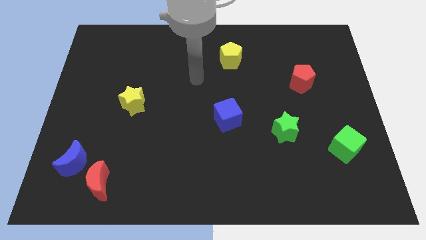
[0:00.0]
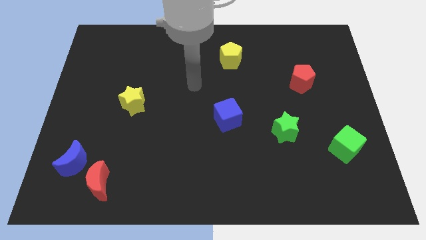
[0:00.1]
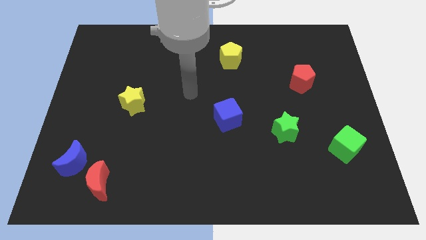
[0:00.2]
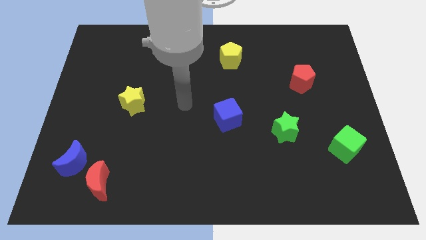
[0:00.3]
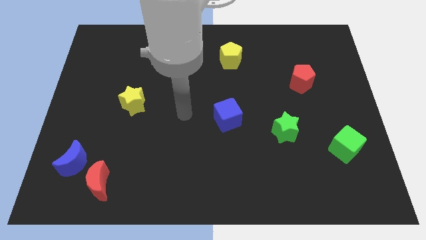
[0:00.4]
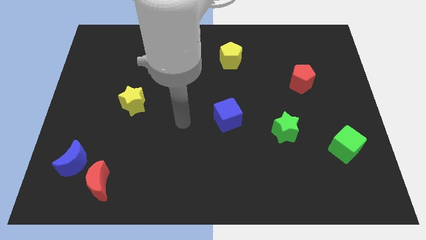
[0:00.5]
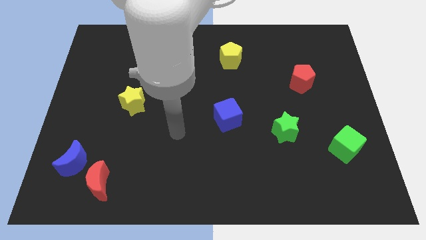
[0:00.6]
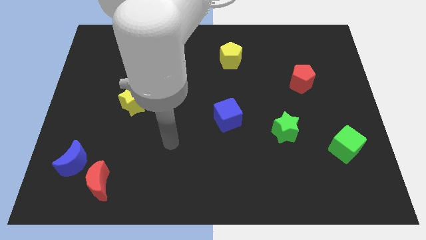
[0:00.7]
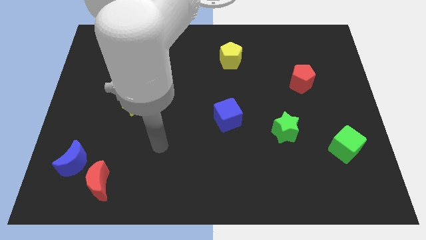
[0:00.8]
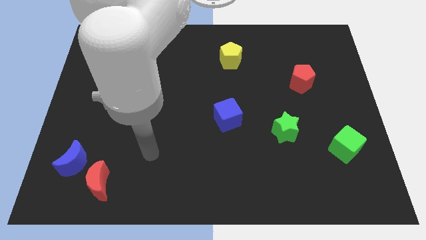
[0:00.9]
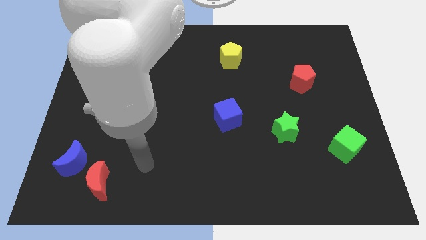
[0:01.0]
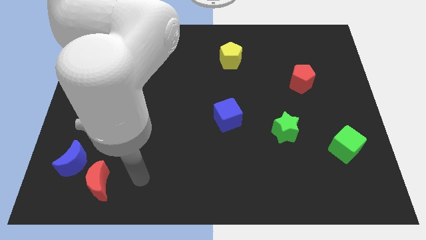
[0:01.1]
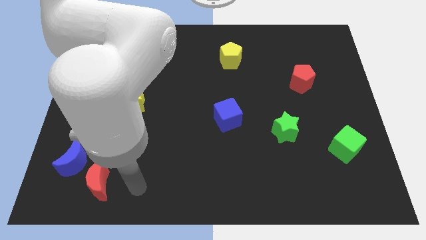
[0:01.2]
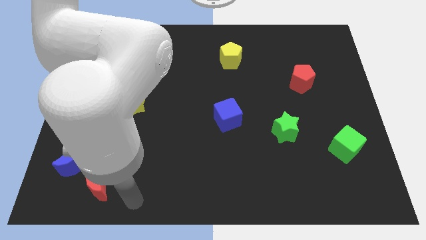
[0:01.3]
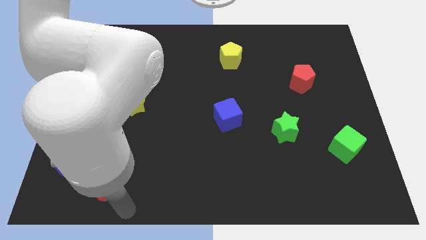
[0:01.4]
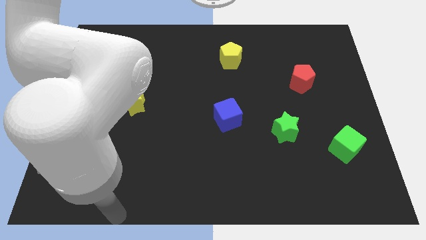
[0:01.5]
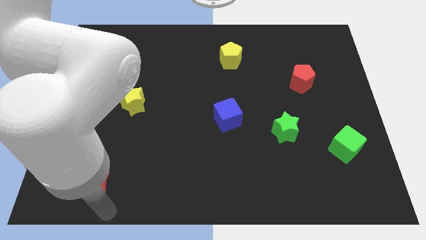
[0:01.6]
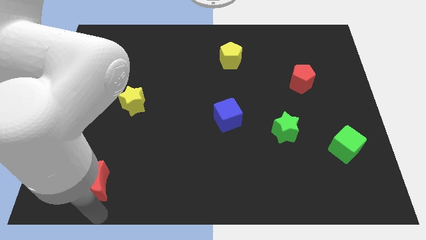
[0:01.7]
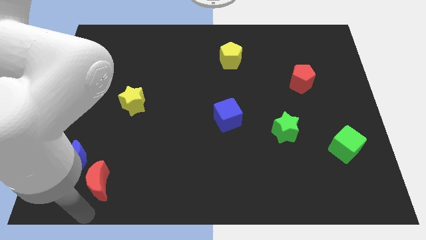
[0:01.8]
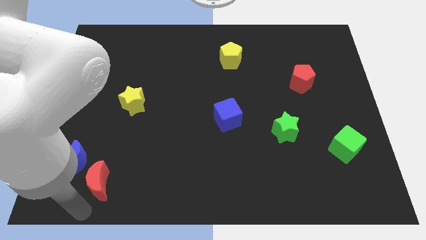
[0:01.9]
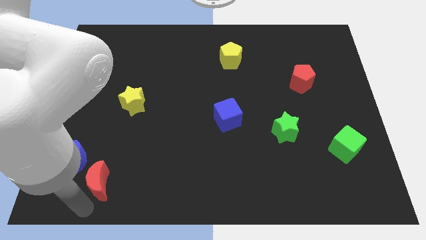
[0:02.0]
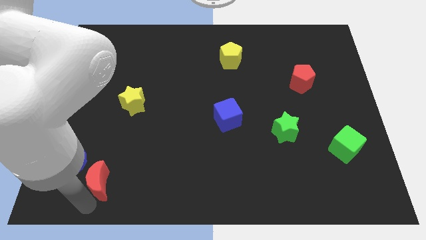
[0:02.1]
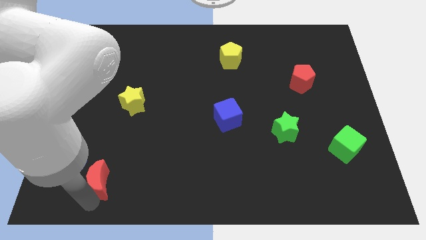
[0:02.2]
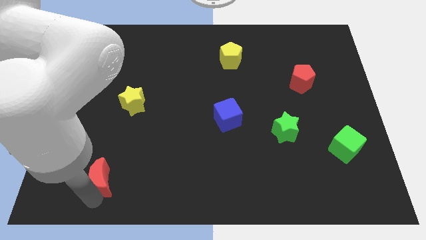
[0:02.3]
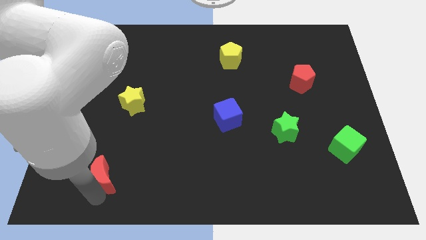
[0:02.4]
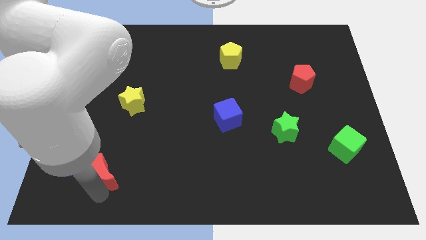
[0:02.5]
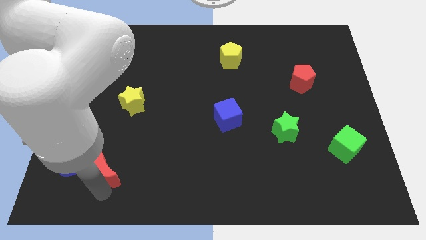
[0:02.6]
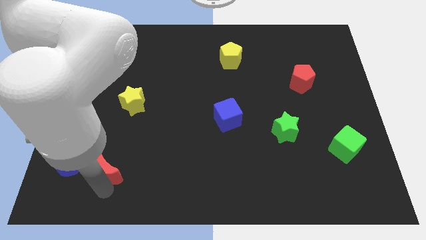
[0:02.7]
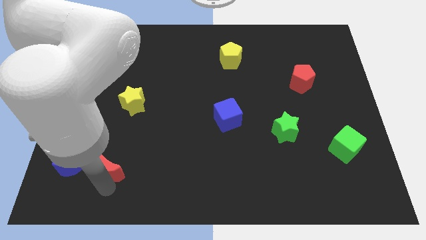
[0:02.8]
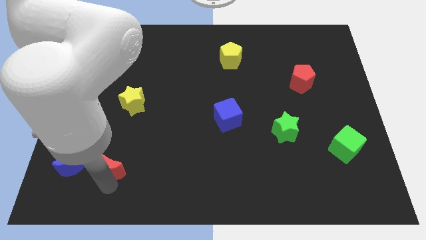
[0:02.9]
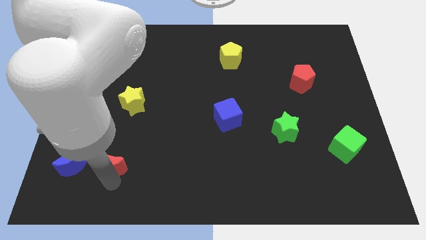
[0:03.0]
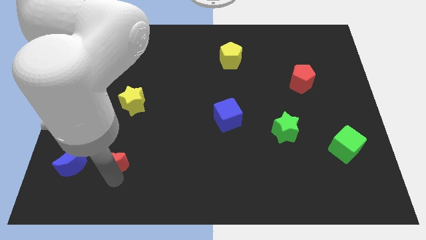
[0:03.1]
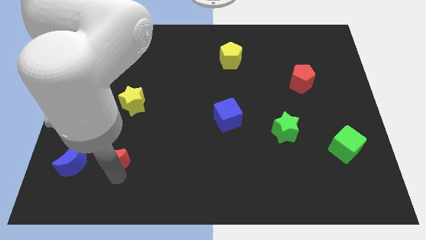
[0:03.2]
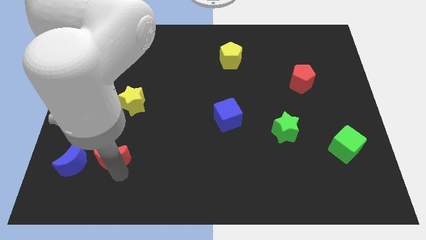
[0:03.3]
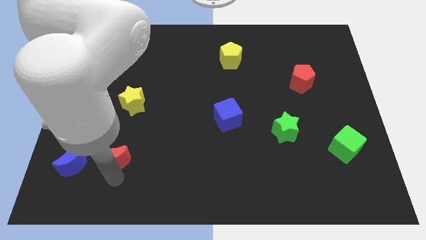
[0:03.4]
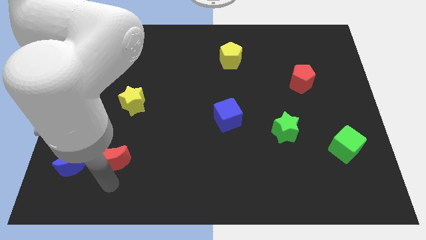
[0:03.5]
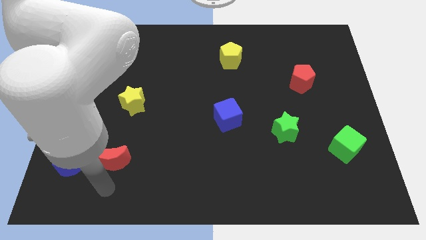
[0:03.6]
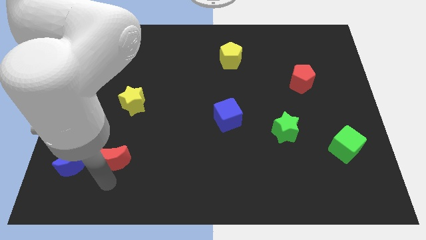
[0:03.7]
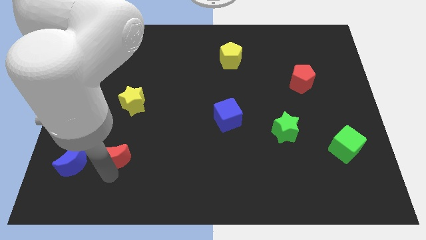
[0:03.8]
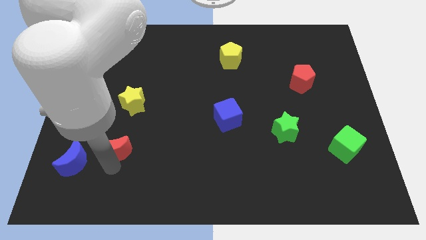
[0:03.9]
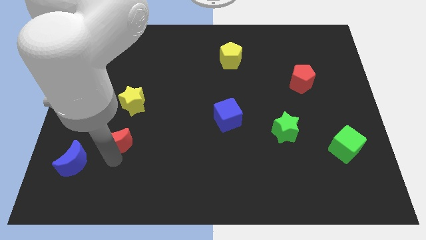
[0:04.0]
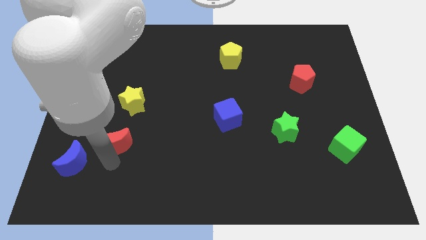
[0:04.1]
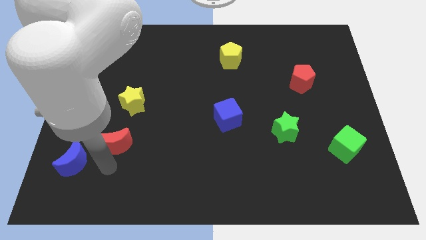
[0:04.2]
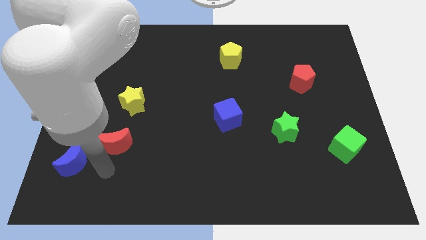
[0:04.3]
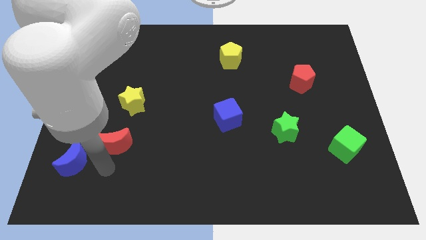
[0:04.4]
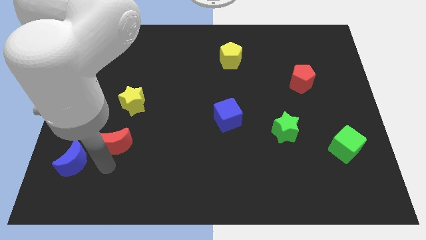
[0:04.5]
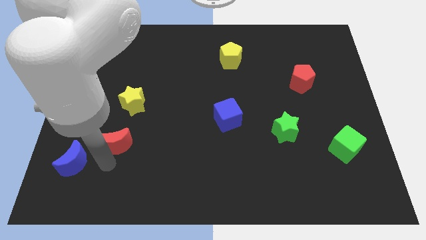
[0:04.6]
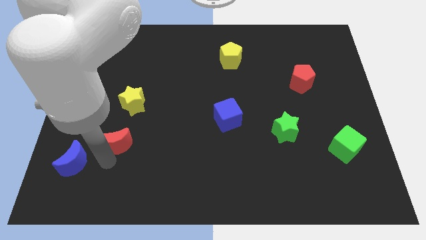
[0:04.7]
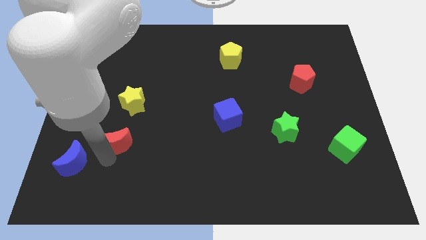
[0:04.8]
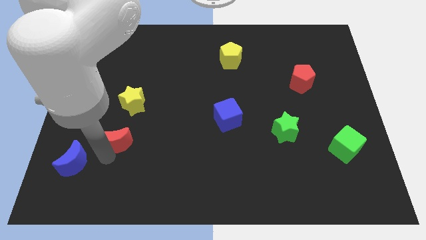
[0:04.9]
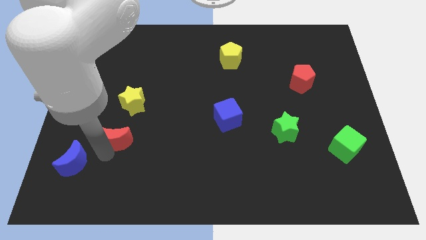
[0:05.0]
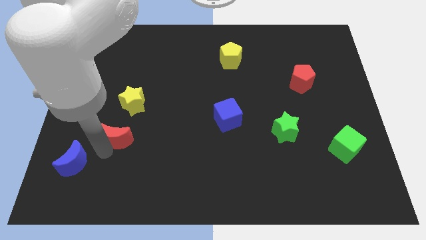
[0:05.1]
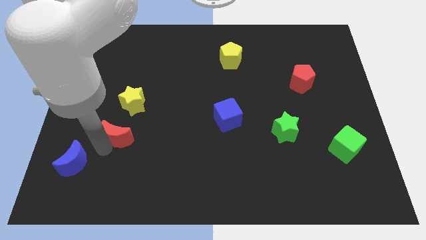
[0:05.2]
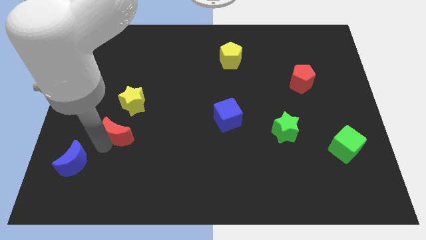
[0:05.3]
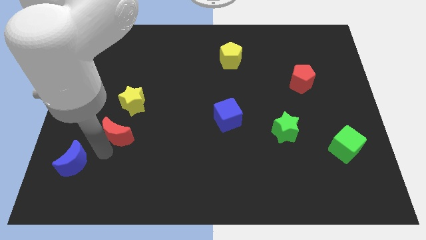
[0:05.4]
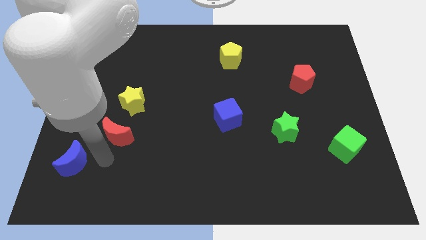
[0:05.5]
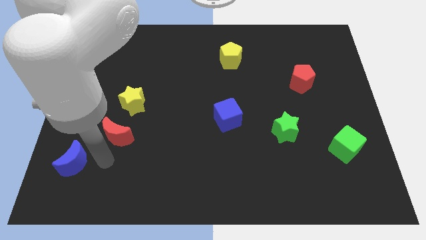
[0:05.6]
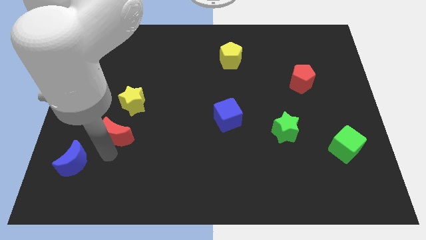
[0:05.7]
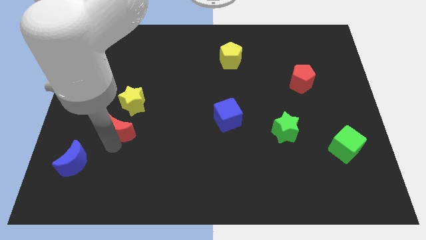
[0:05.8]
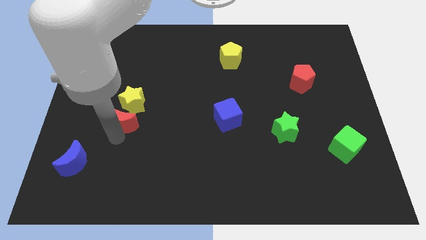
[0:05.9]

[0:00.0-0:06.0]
slide the red moon close to the yellow star

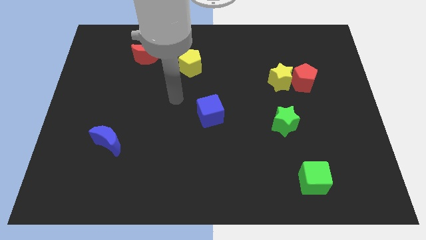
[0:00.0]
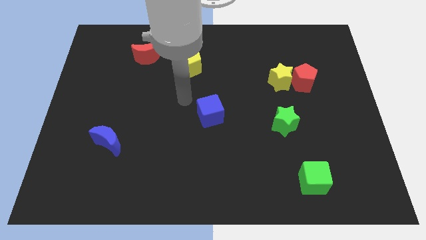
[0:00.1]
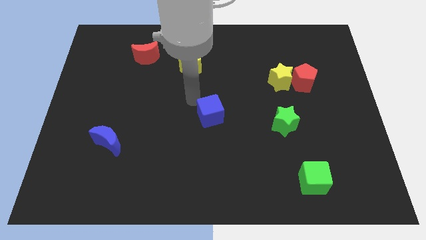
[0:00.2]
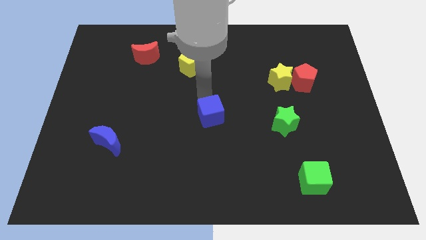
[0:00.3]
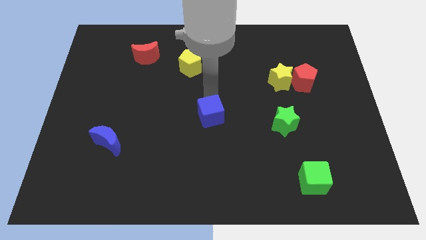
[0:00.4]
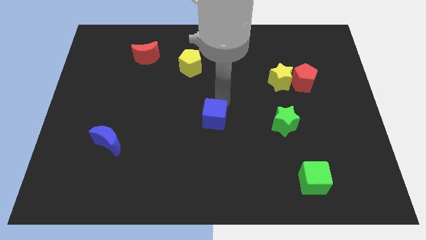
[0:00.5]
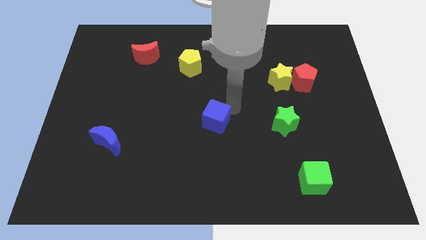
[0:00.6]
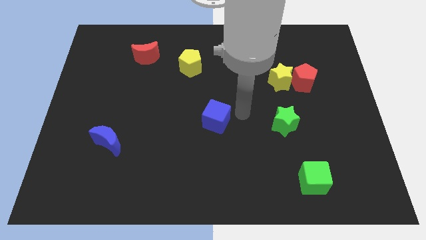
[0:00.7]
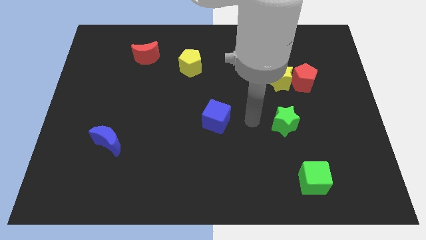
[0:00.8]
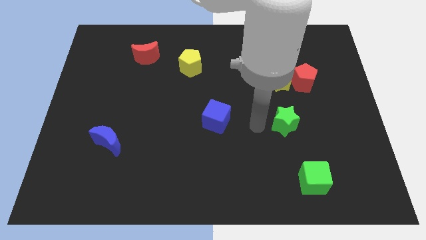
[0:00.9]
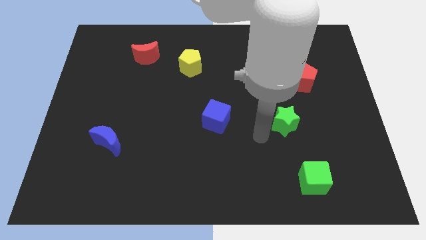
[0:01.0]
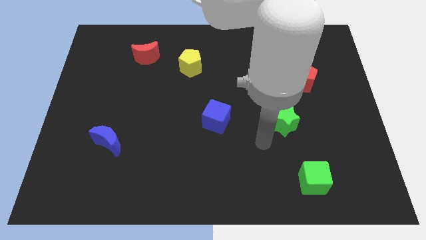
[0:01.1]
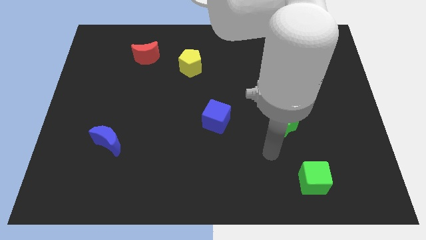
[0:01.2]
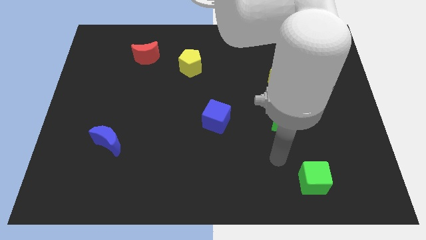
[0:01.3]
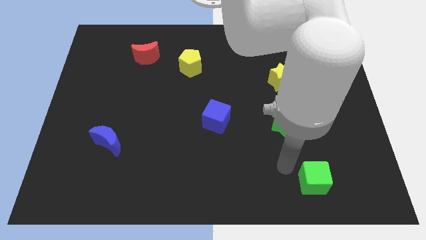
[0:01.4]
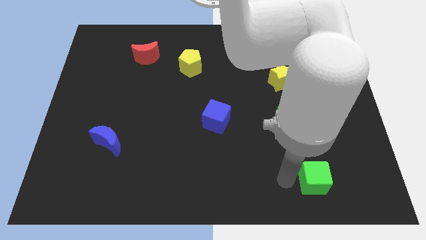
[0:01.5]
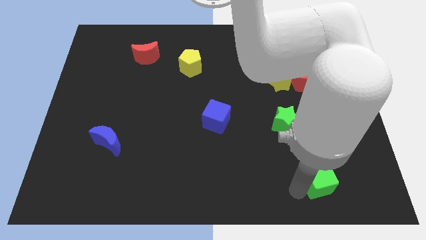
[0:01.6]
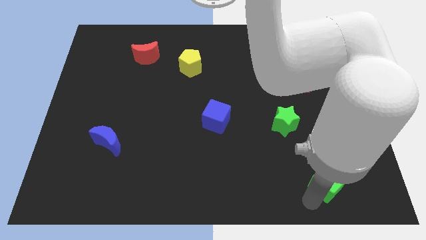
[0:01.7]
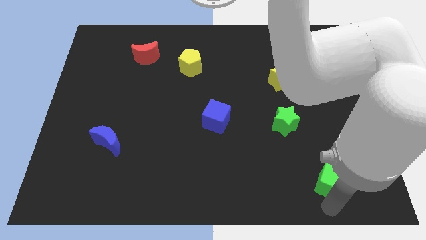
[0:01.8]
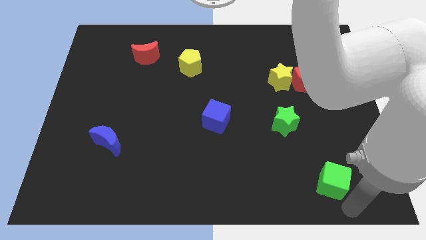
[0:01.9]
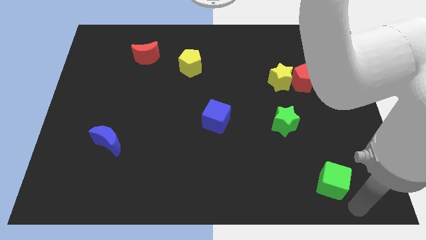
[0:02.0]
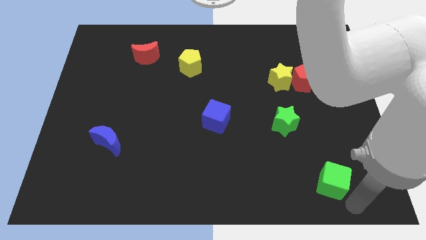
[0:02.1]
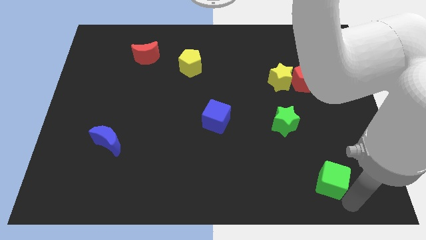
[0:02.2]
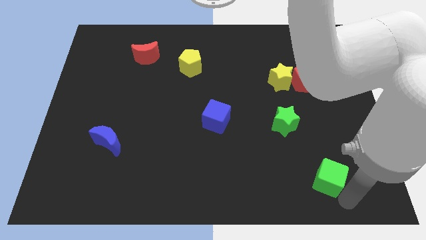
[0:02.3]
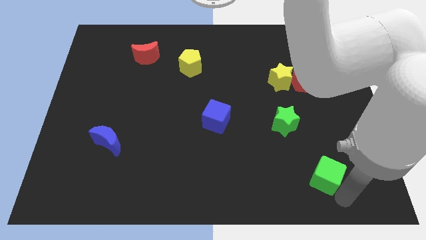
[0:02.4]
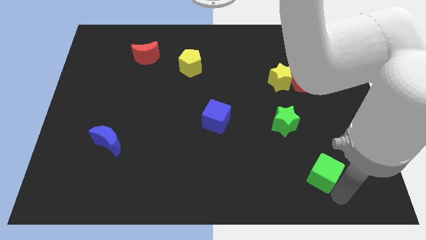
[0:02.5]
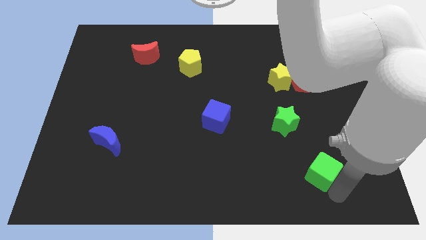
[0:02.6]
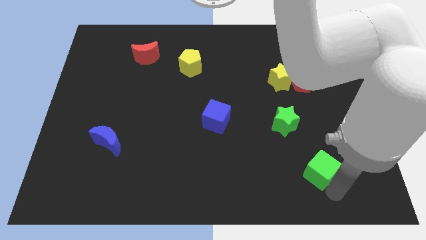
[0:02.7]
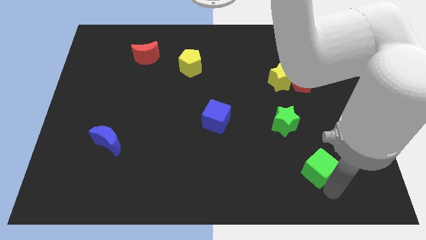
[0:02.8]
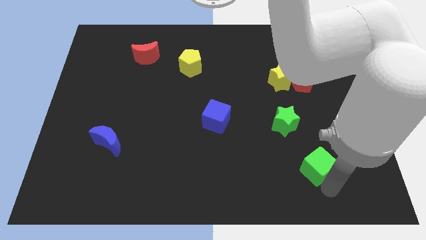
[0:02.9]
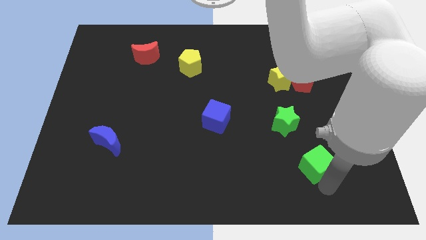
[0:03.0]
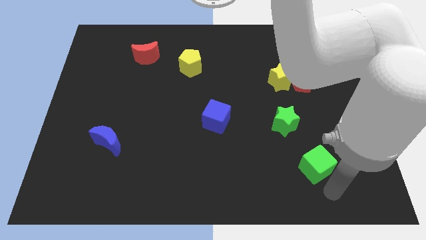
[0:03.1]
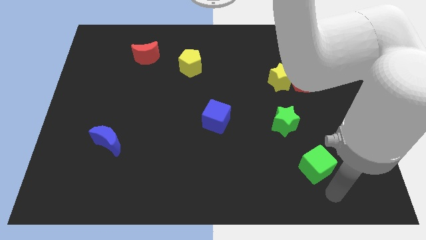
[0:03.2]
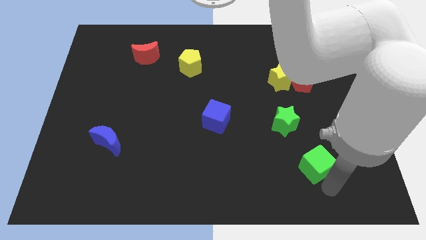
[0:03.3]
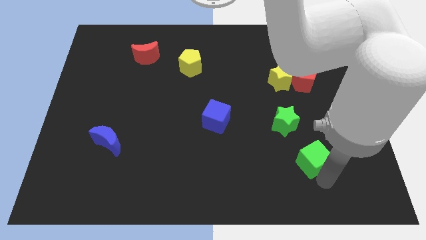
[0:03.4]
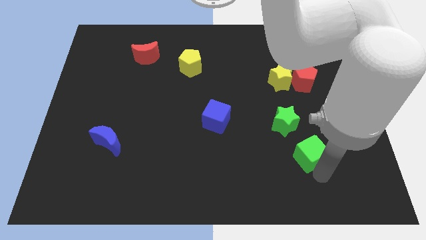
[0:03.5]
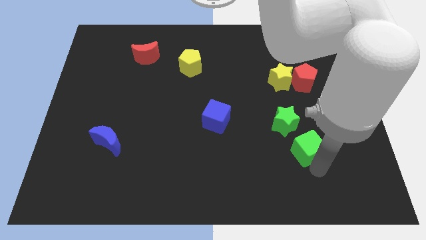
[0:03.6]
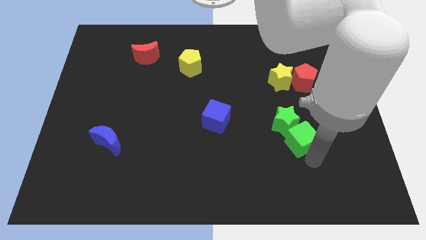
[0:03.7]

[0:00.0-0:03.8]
move the green cube close to the green star
